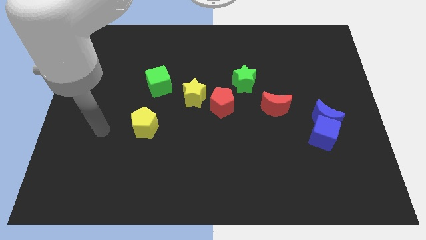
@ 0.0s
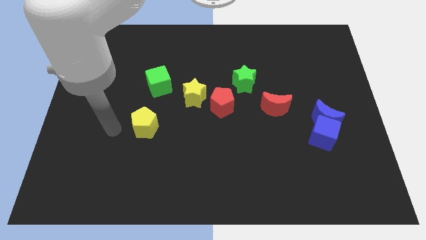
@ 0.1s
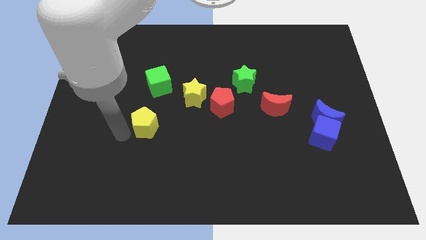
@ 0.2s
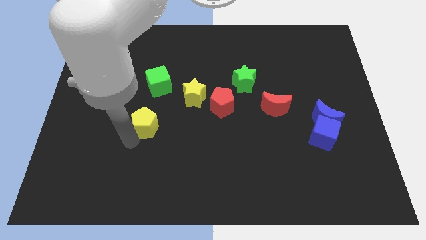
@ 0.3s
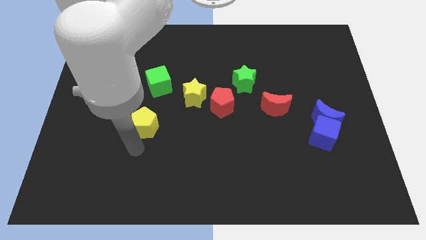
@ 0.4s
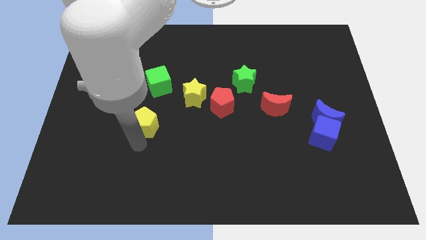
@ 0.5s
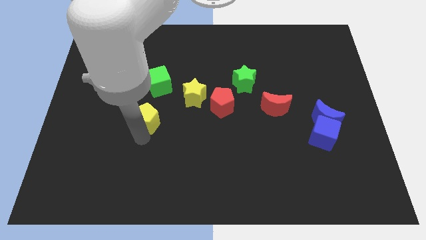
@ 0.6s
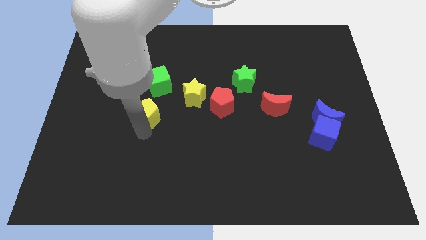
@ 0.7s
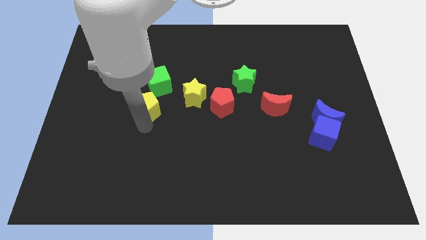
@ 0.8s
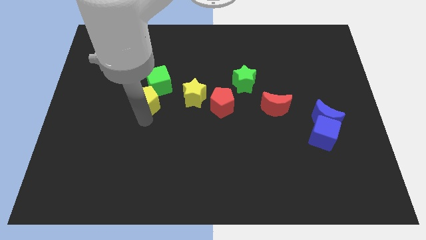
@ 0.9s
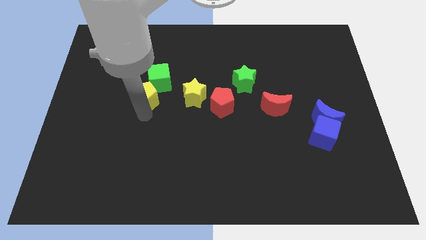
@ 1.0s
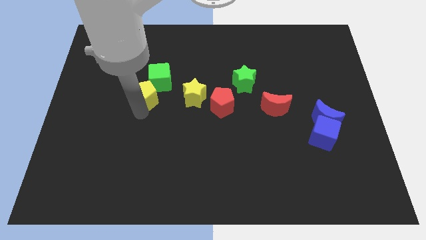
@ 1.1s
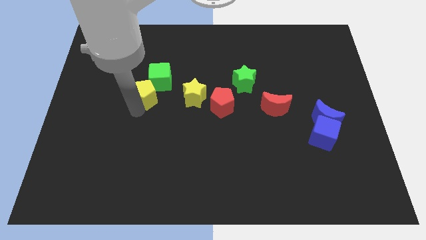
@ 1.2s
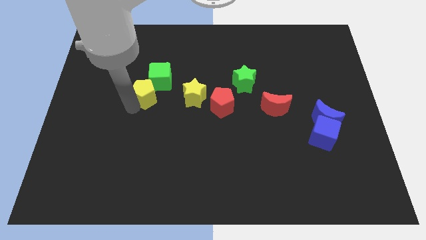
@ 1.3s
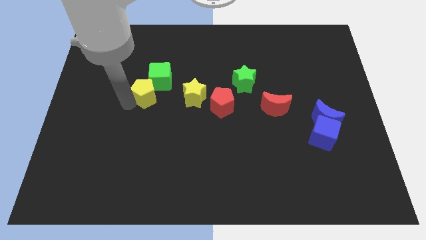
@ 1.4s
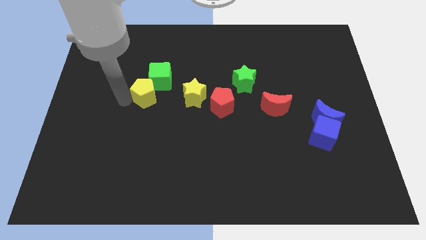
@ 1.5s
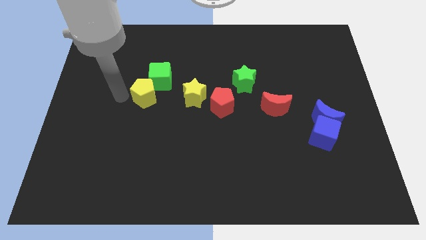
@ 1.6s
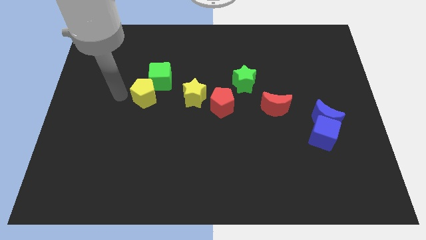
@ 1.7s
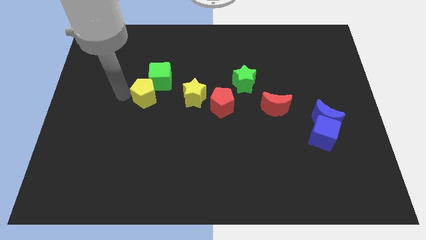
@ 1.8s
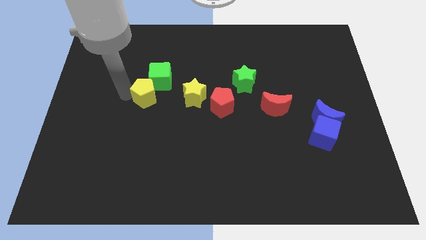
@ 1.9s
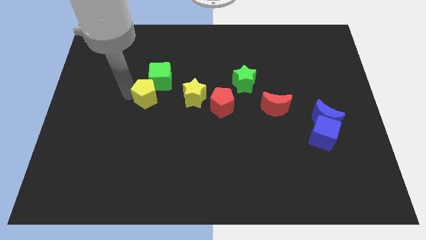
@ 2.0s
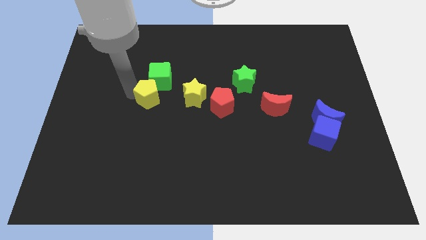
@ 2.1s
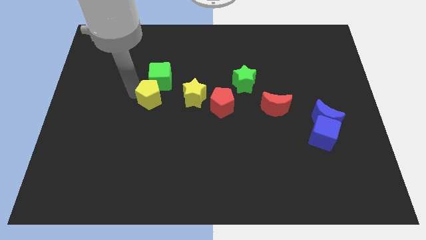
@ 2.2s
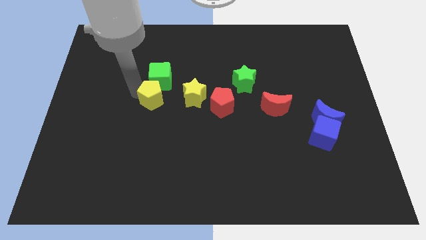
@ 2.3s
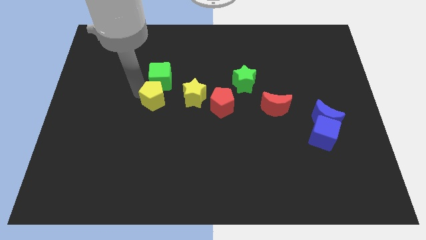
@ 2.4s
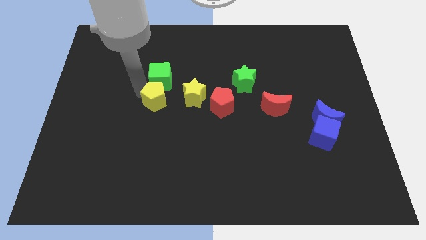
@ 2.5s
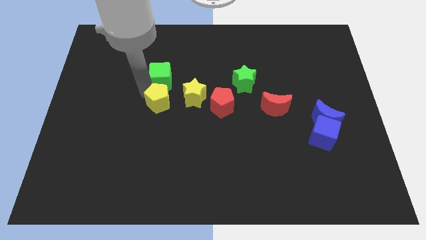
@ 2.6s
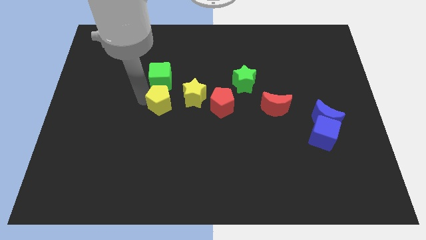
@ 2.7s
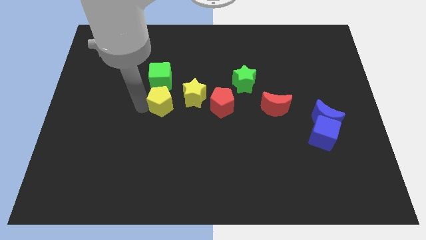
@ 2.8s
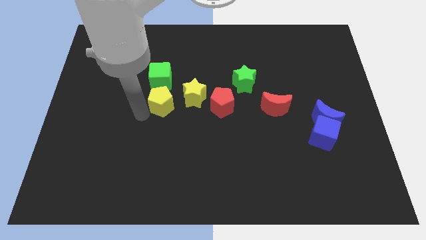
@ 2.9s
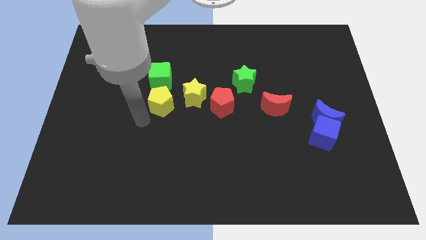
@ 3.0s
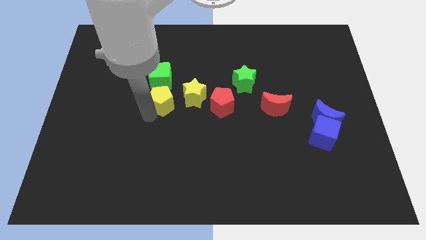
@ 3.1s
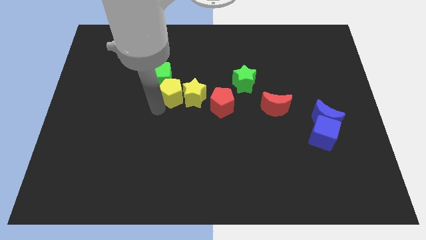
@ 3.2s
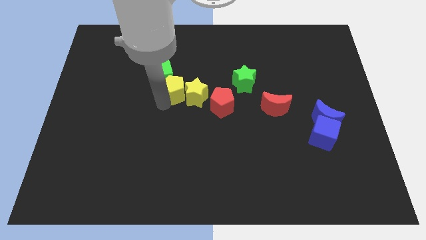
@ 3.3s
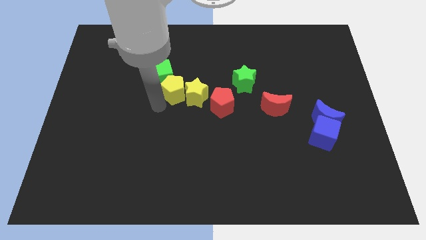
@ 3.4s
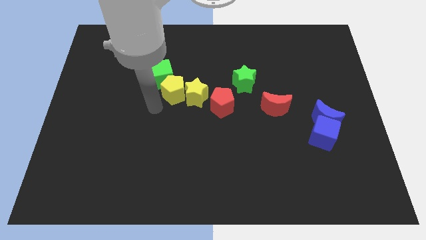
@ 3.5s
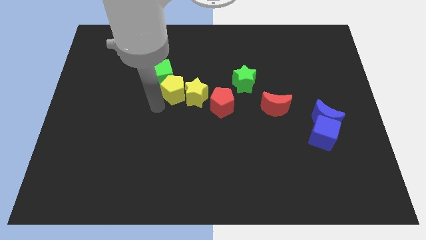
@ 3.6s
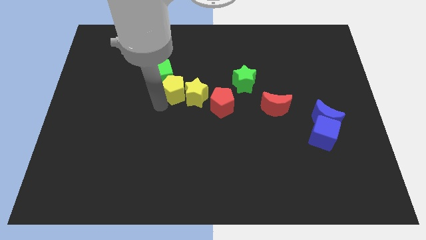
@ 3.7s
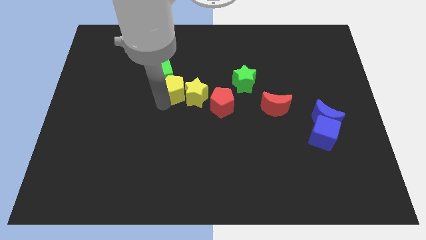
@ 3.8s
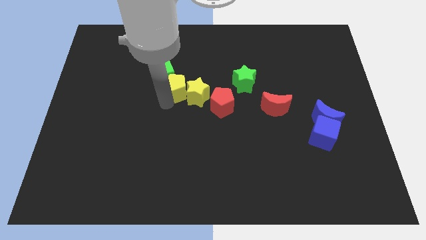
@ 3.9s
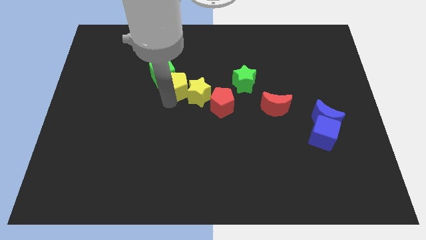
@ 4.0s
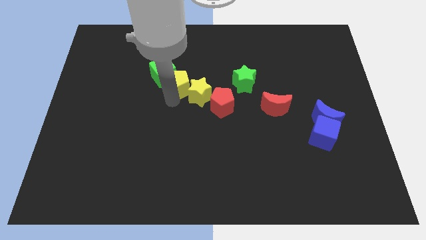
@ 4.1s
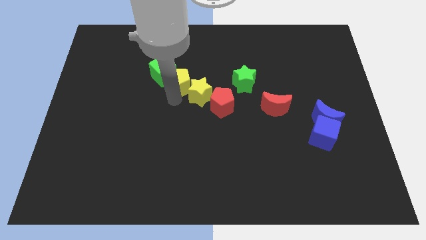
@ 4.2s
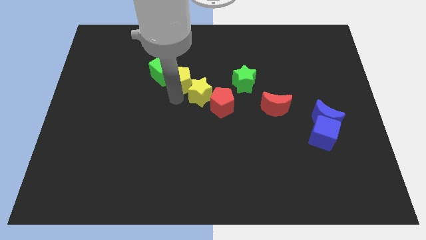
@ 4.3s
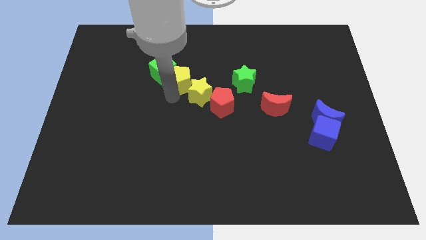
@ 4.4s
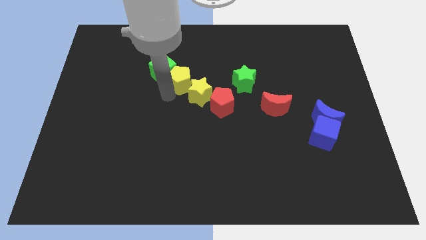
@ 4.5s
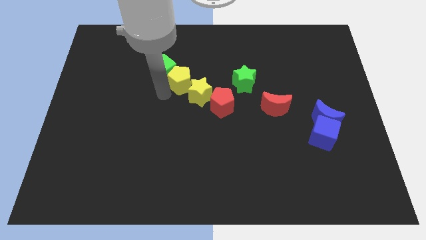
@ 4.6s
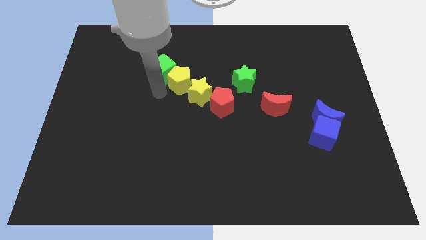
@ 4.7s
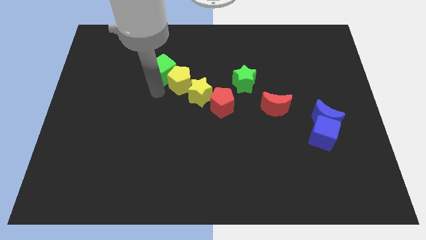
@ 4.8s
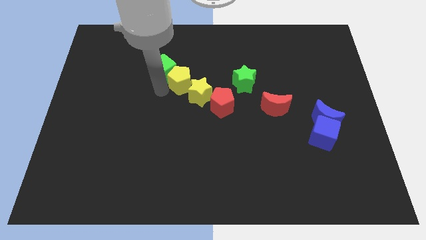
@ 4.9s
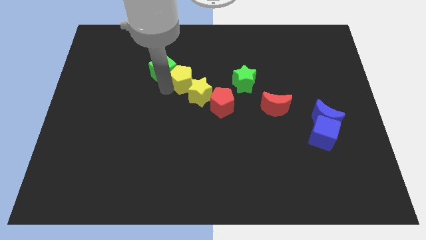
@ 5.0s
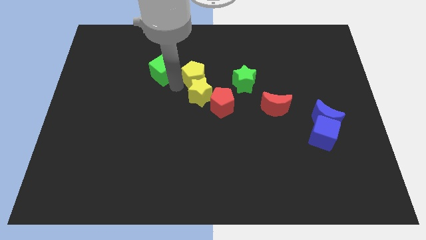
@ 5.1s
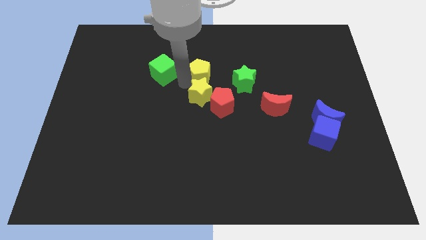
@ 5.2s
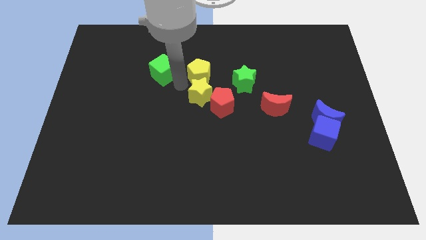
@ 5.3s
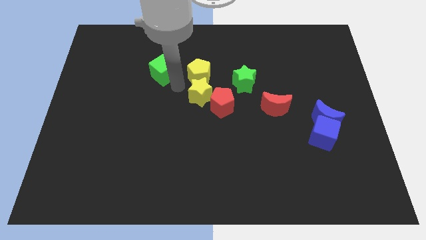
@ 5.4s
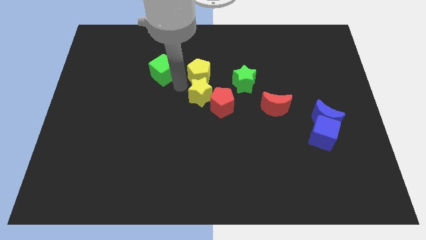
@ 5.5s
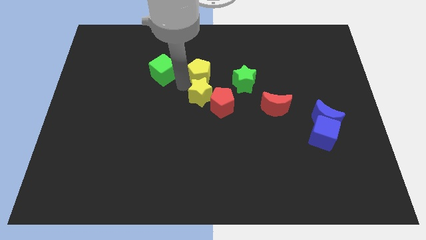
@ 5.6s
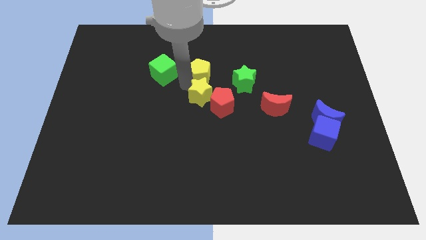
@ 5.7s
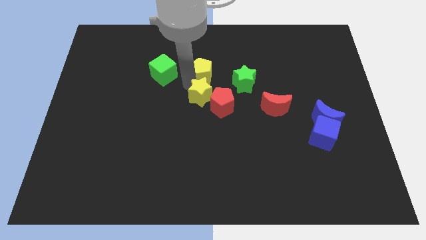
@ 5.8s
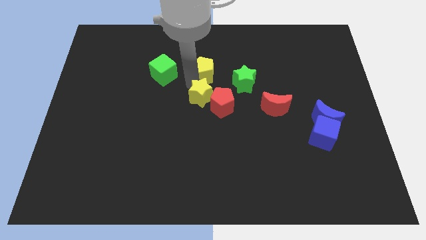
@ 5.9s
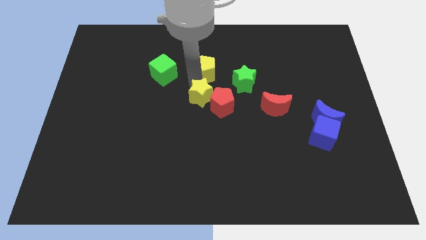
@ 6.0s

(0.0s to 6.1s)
slide the yellow pentagon to the top left of the green star
